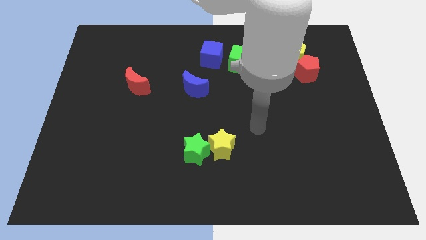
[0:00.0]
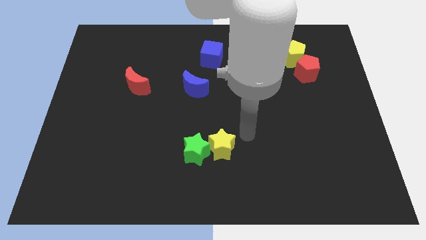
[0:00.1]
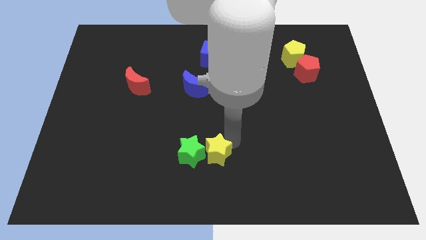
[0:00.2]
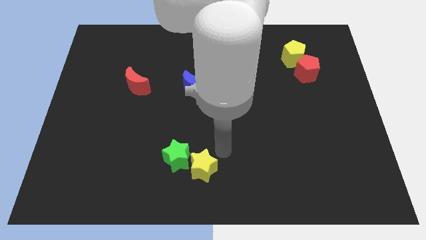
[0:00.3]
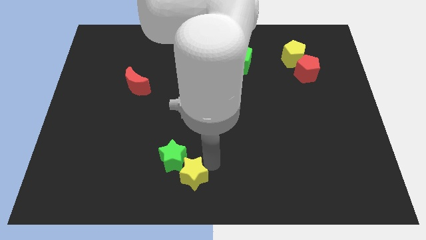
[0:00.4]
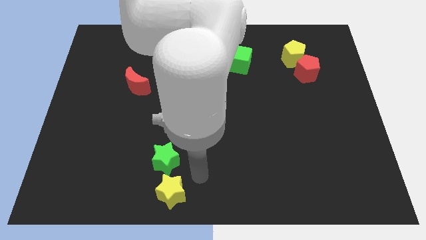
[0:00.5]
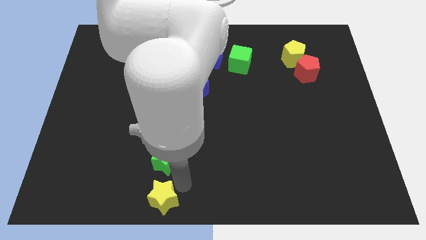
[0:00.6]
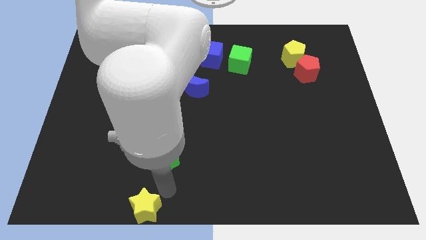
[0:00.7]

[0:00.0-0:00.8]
pull the green star apart from the yellow star

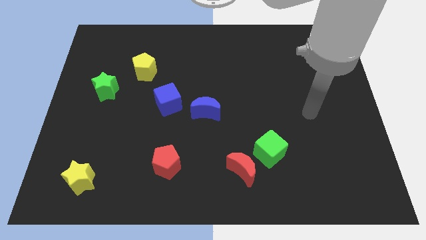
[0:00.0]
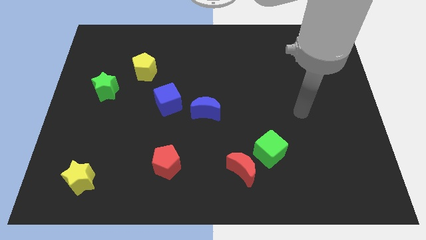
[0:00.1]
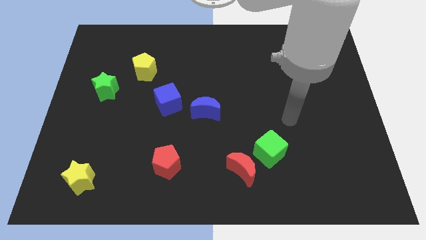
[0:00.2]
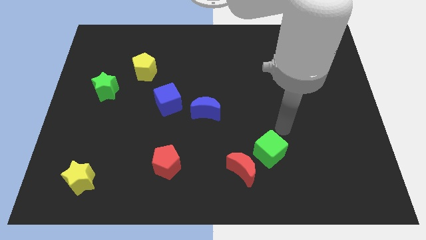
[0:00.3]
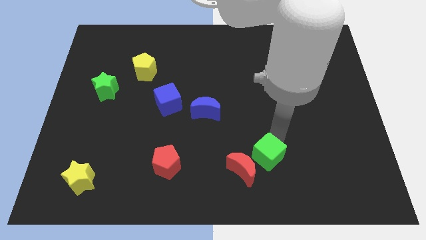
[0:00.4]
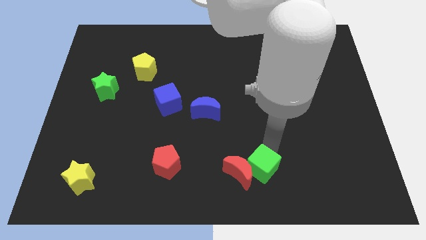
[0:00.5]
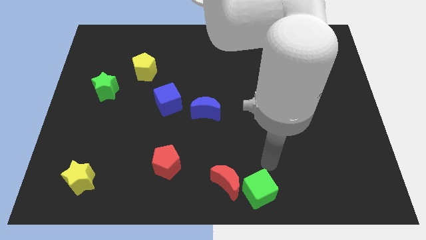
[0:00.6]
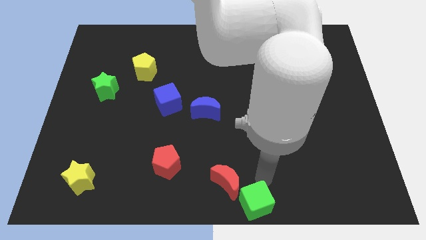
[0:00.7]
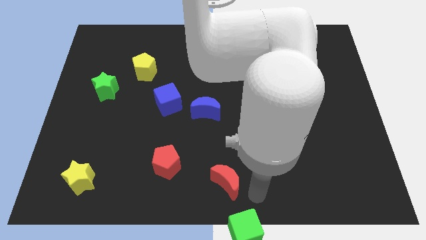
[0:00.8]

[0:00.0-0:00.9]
pull the red moon apart from the green cube

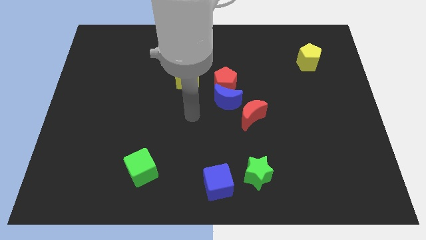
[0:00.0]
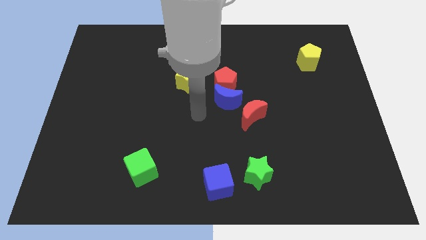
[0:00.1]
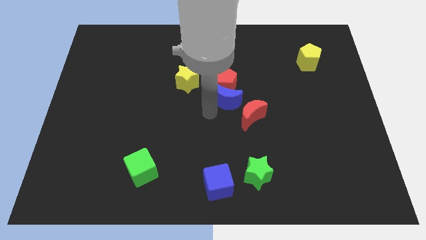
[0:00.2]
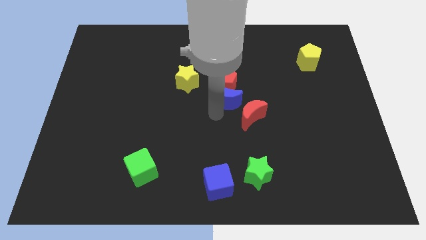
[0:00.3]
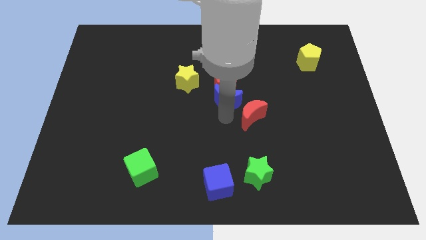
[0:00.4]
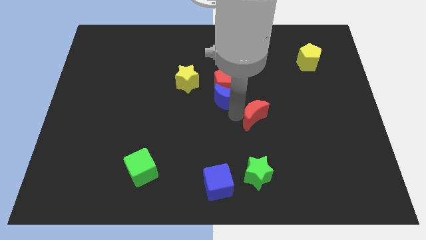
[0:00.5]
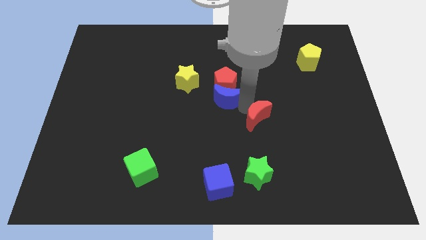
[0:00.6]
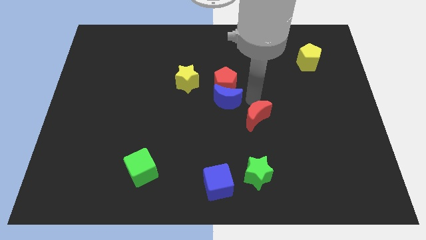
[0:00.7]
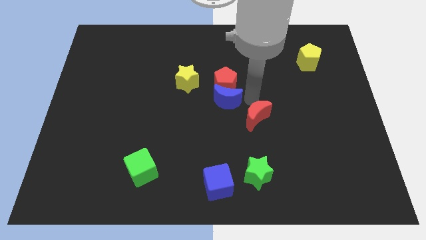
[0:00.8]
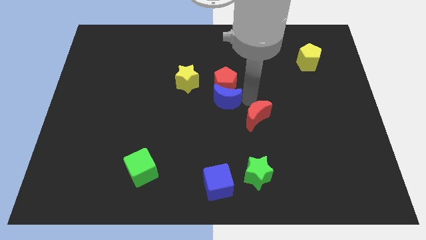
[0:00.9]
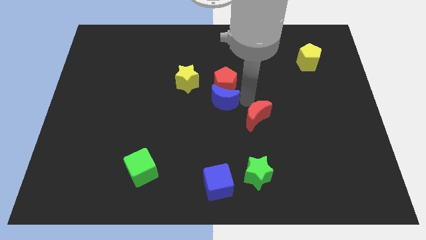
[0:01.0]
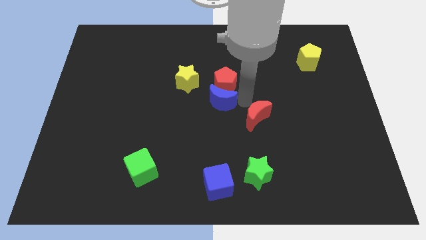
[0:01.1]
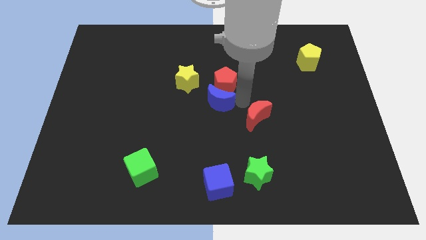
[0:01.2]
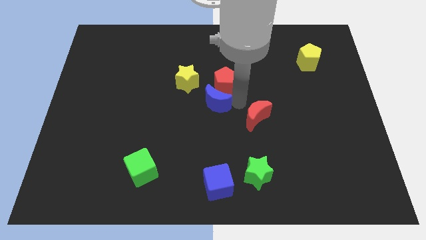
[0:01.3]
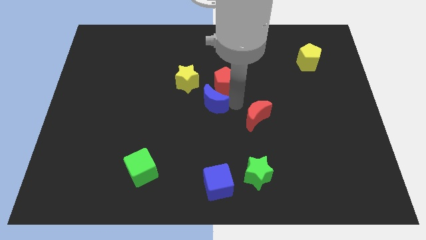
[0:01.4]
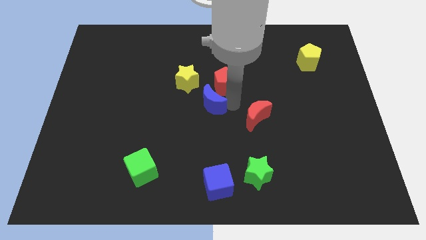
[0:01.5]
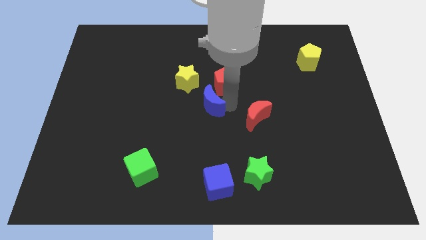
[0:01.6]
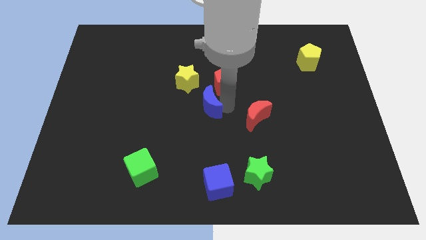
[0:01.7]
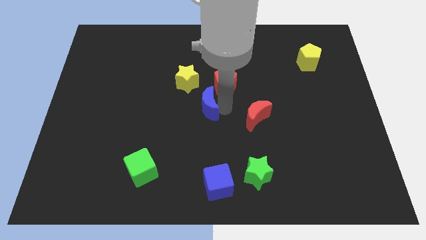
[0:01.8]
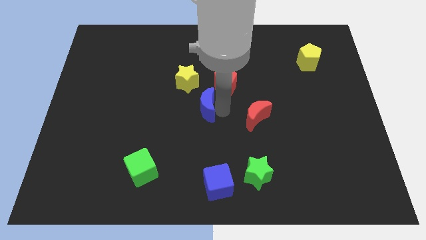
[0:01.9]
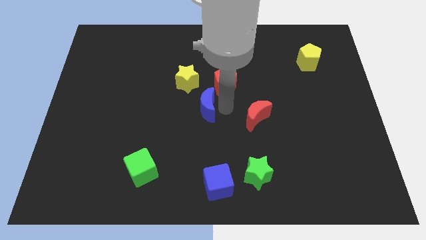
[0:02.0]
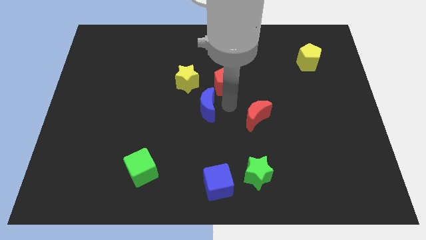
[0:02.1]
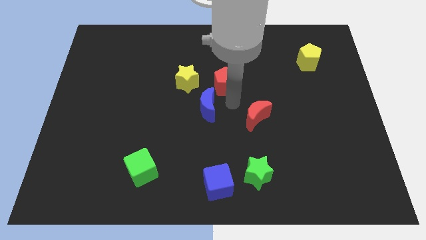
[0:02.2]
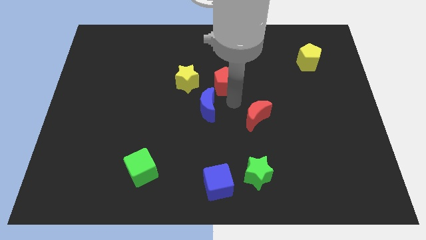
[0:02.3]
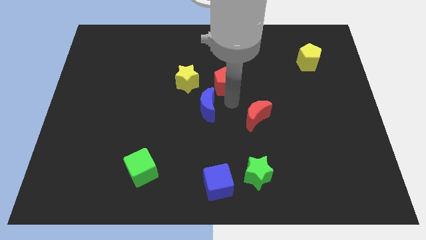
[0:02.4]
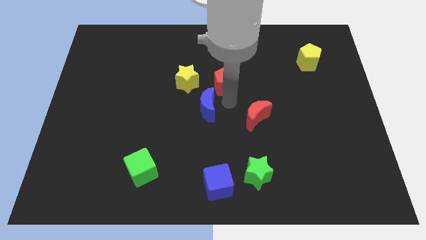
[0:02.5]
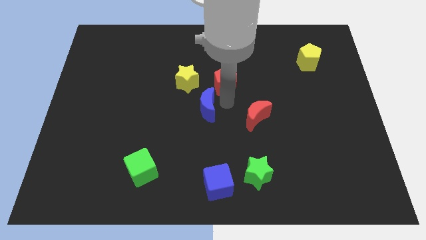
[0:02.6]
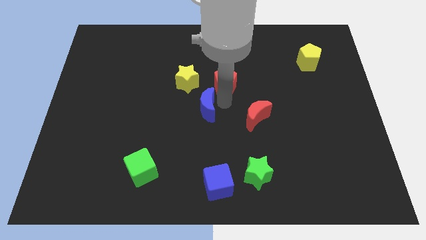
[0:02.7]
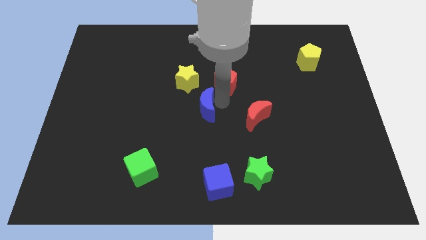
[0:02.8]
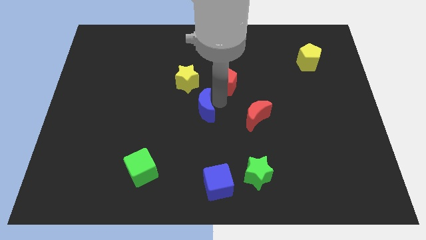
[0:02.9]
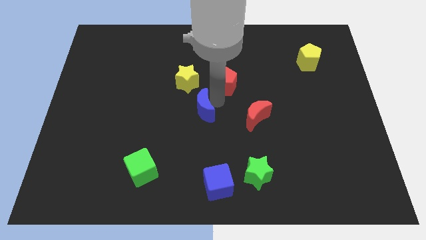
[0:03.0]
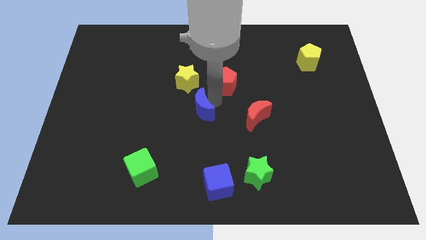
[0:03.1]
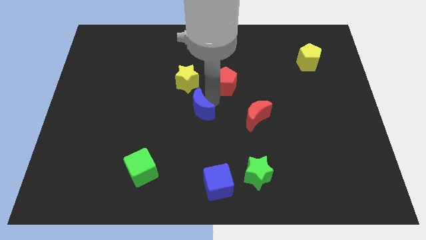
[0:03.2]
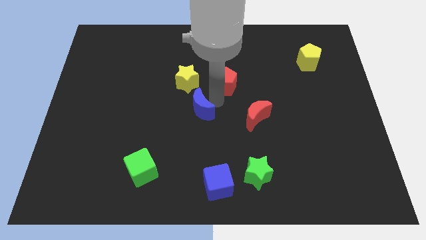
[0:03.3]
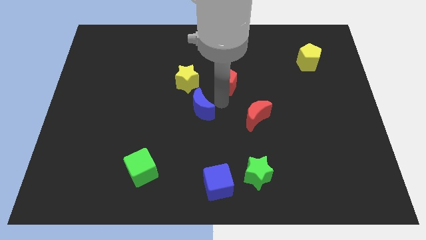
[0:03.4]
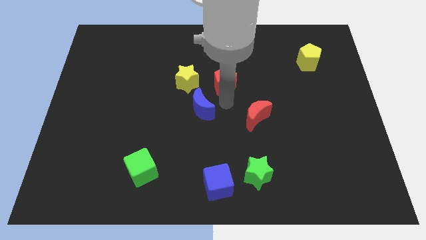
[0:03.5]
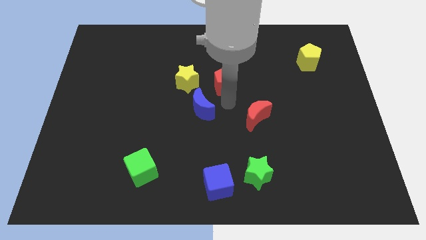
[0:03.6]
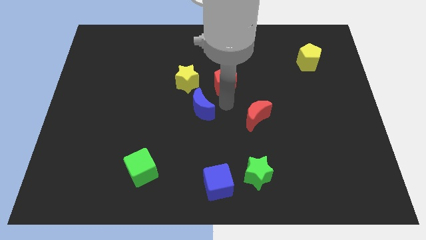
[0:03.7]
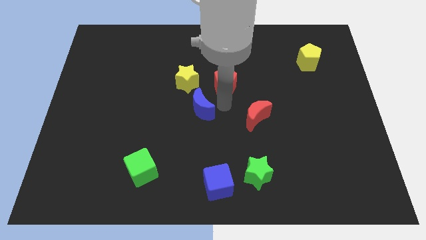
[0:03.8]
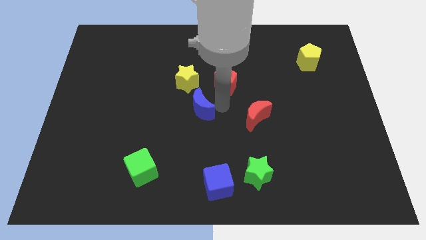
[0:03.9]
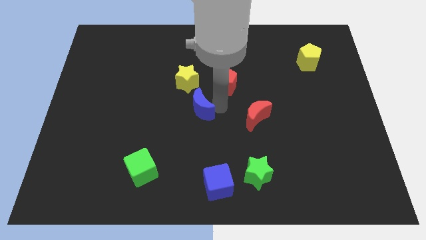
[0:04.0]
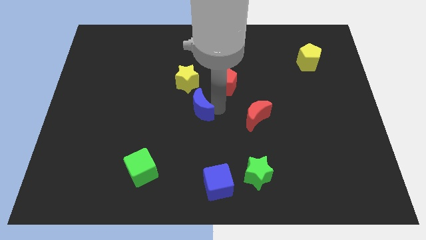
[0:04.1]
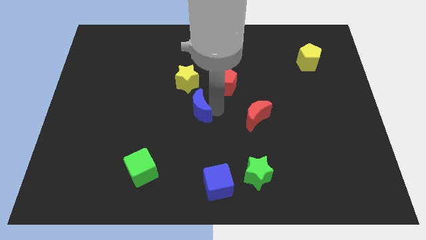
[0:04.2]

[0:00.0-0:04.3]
pull the blue moon apart from the red pentagon and red moon

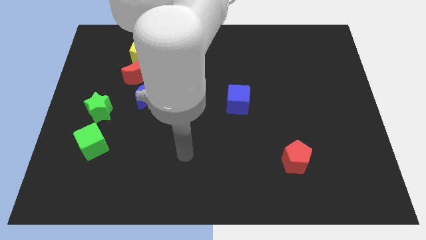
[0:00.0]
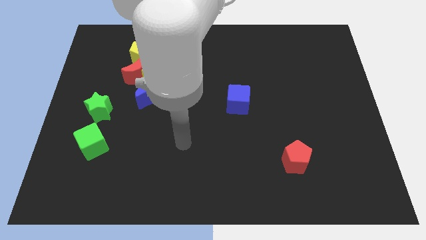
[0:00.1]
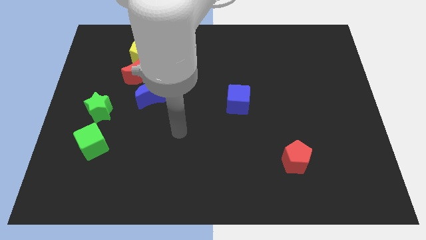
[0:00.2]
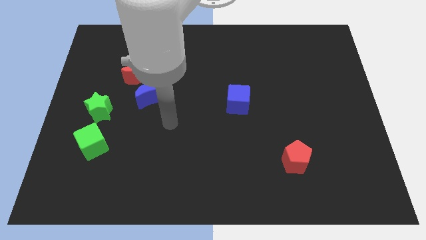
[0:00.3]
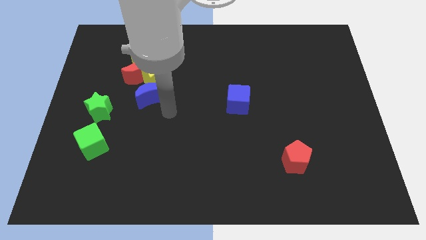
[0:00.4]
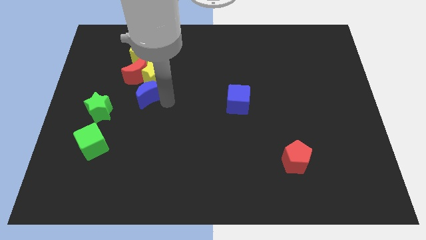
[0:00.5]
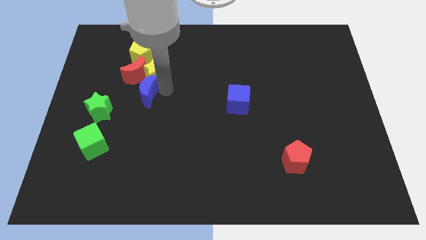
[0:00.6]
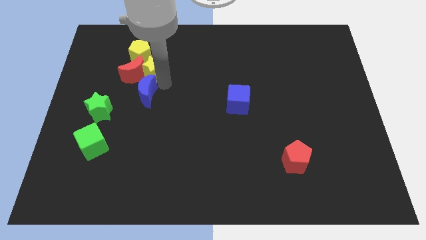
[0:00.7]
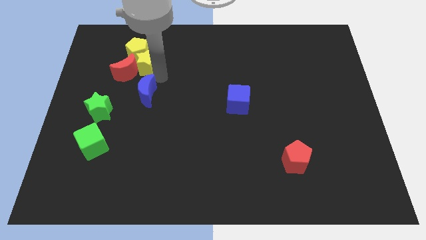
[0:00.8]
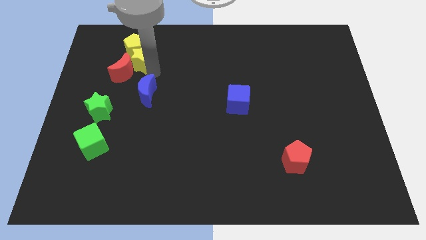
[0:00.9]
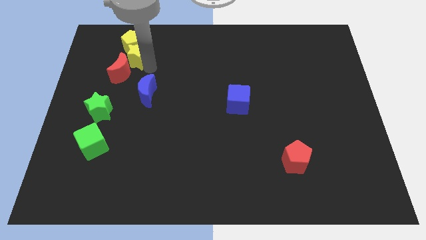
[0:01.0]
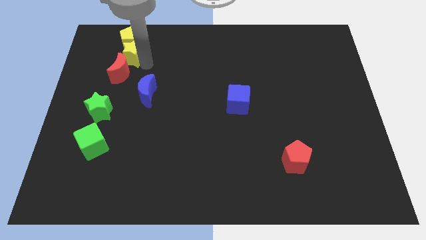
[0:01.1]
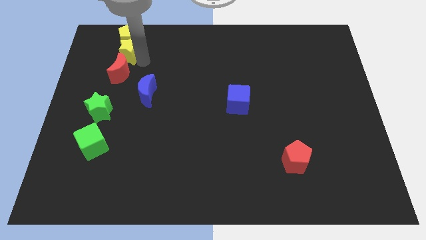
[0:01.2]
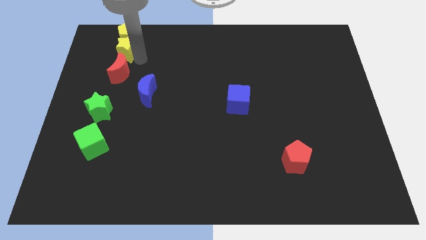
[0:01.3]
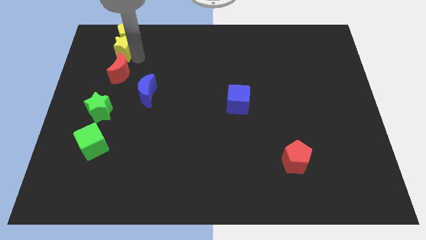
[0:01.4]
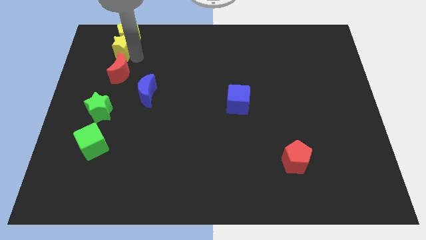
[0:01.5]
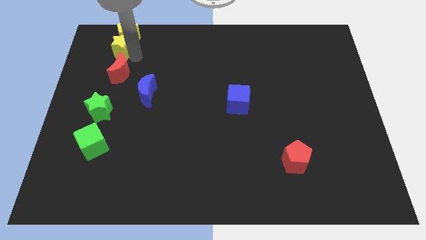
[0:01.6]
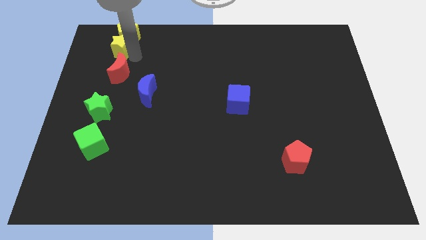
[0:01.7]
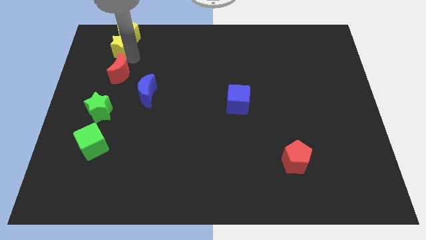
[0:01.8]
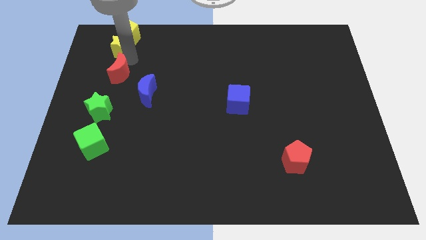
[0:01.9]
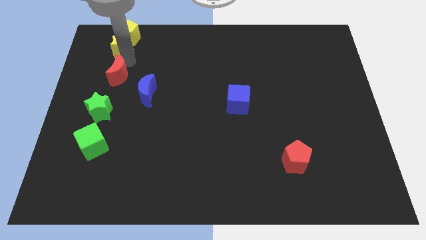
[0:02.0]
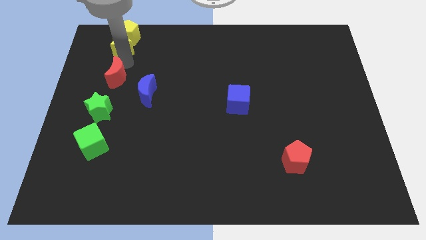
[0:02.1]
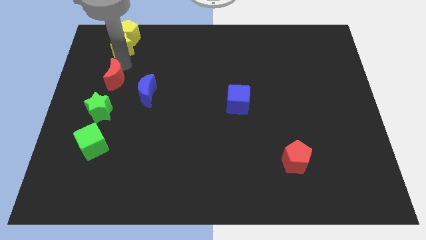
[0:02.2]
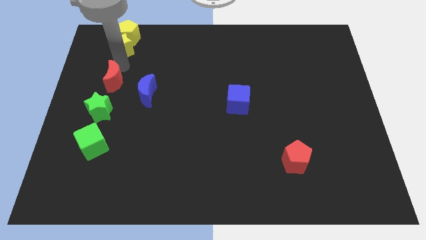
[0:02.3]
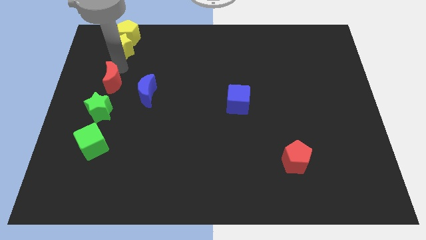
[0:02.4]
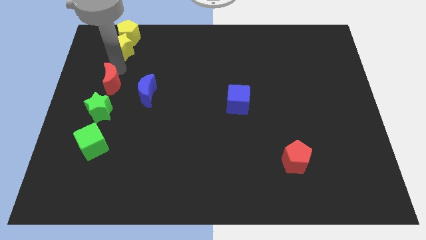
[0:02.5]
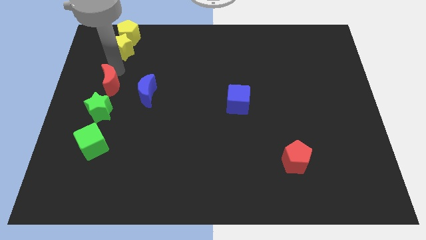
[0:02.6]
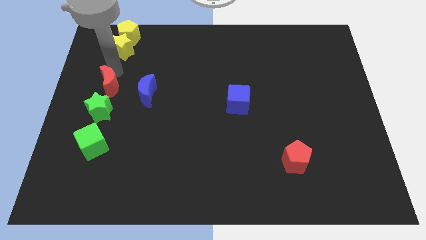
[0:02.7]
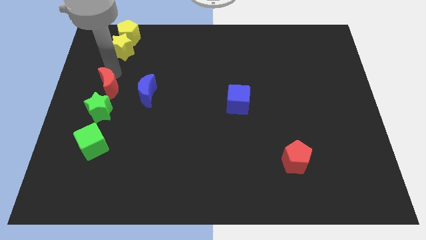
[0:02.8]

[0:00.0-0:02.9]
pull the red moon apart from the yellow star, yellow pentagon, and blue moon

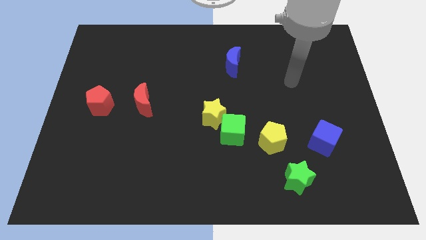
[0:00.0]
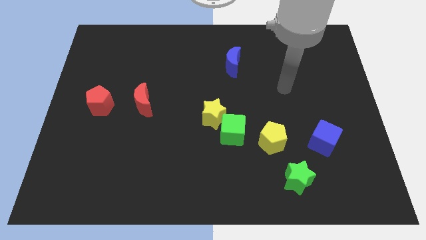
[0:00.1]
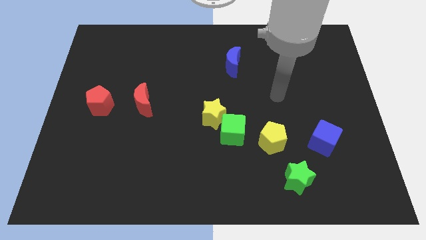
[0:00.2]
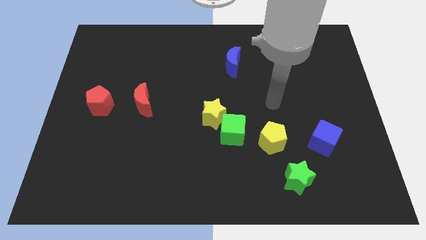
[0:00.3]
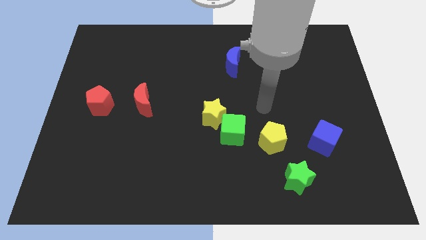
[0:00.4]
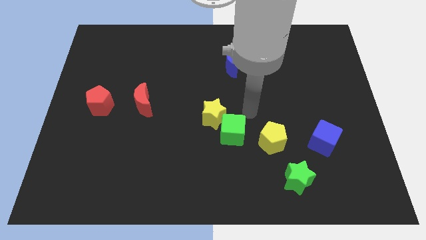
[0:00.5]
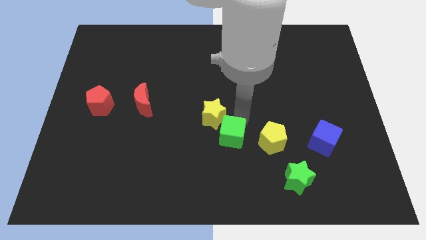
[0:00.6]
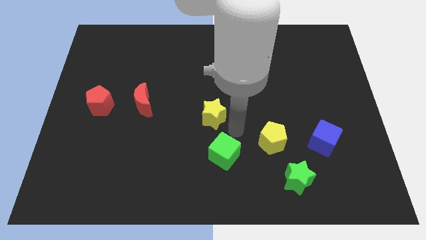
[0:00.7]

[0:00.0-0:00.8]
pull the yellow star apart from the green cube
